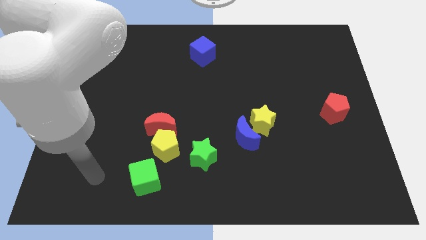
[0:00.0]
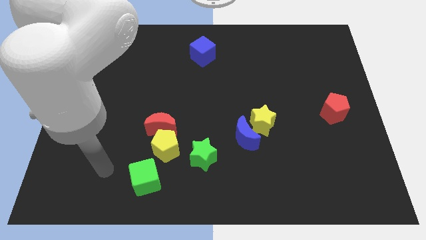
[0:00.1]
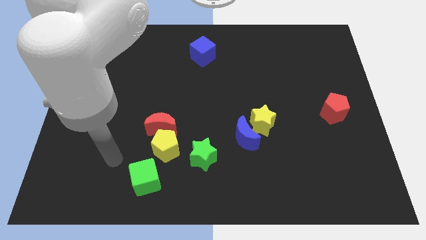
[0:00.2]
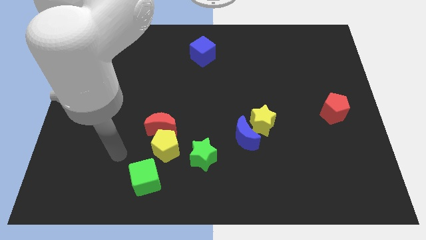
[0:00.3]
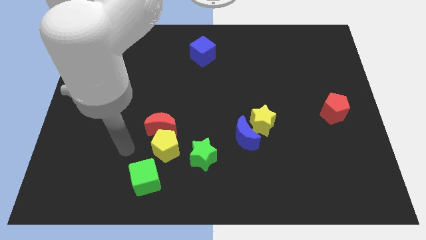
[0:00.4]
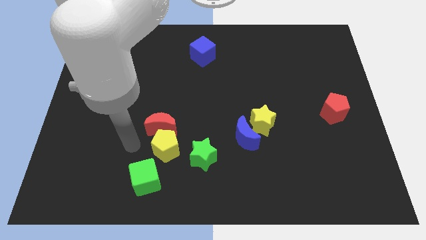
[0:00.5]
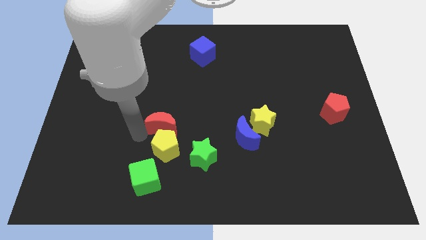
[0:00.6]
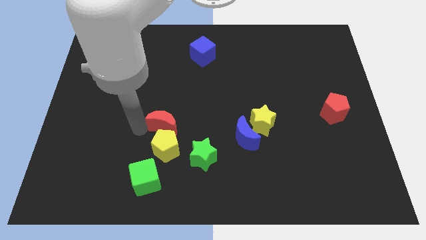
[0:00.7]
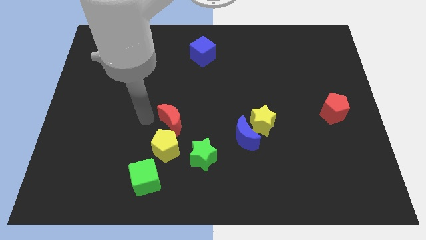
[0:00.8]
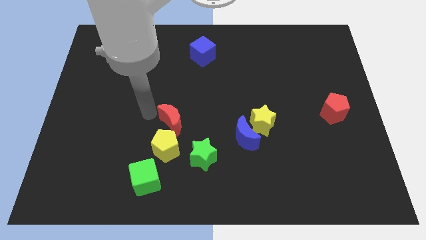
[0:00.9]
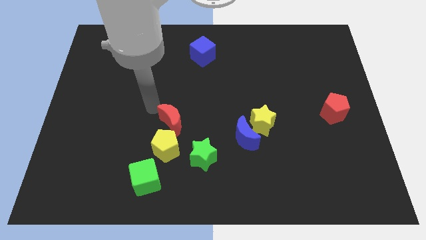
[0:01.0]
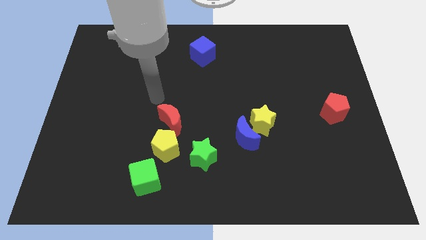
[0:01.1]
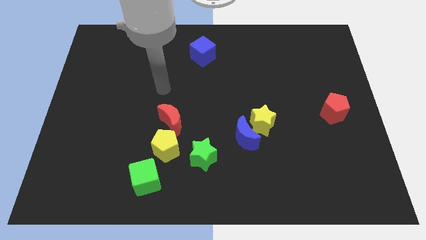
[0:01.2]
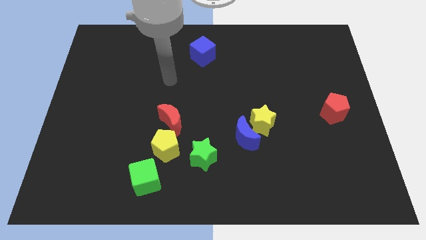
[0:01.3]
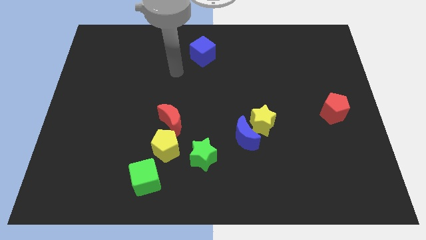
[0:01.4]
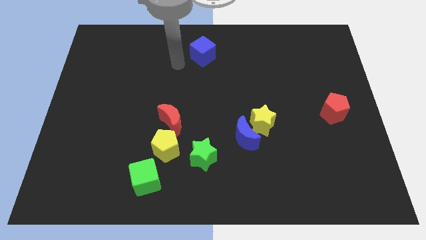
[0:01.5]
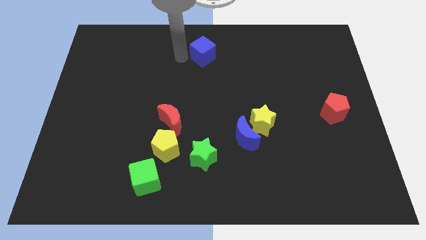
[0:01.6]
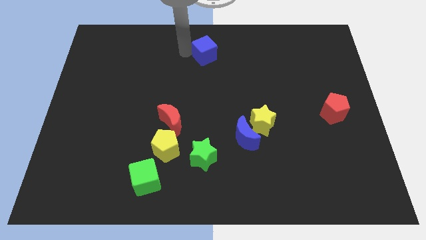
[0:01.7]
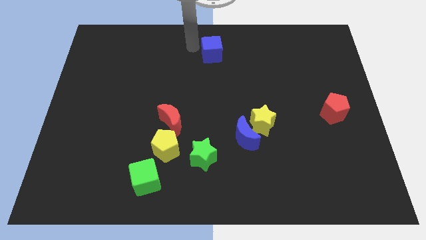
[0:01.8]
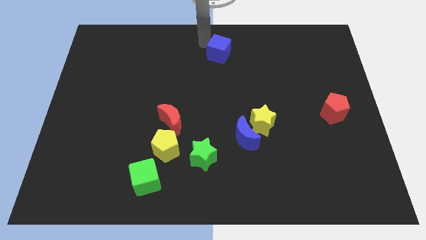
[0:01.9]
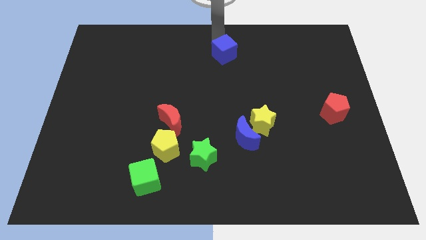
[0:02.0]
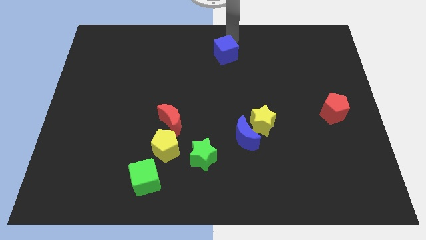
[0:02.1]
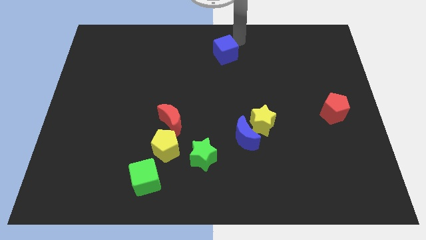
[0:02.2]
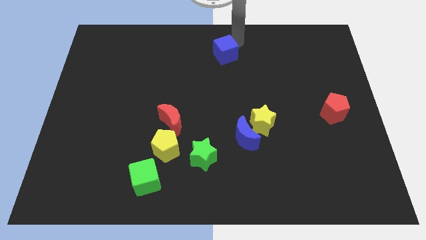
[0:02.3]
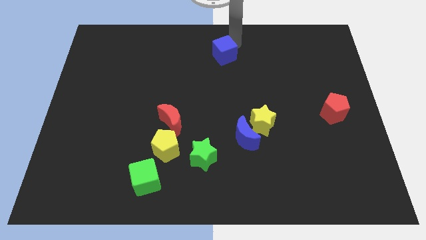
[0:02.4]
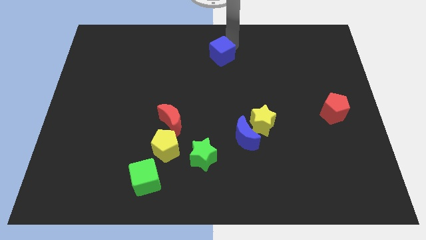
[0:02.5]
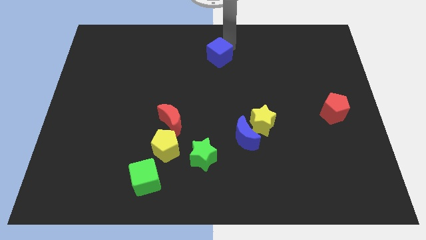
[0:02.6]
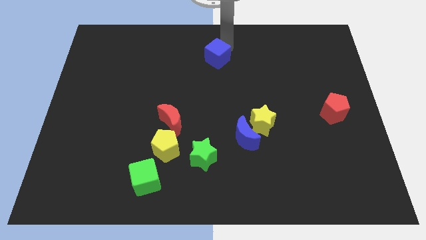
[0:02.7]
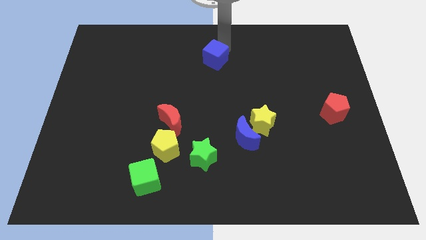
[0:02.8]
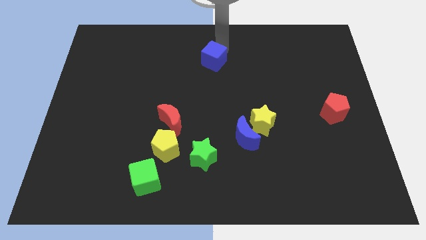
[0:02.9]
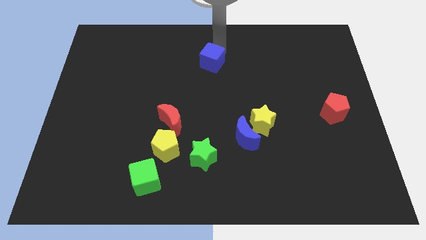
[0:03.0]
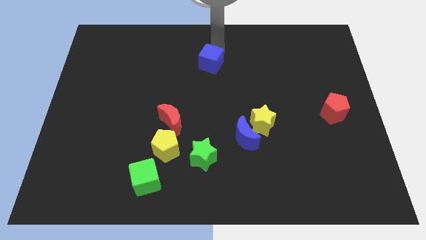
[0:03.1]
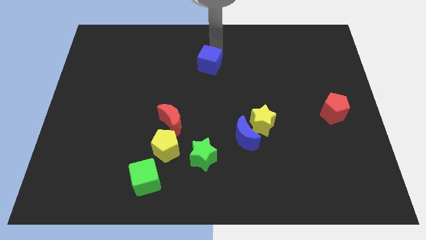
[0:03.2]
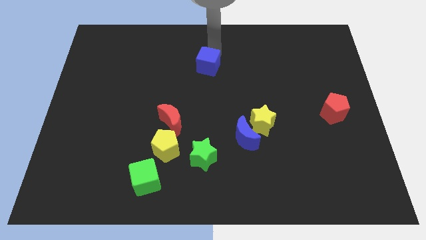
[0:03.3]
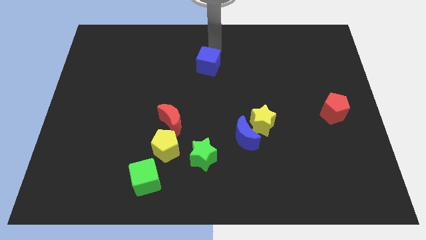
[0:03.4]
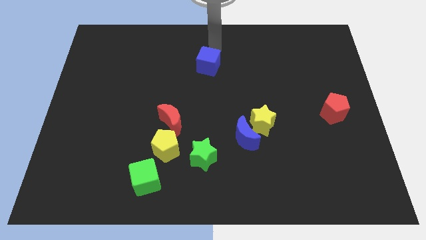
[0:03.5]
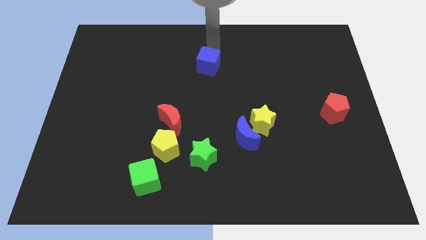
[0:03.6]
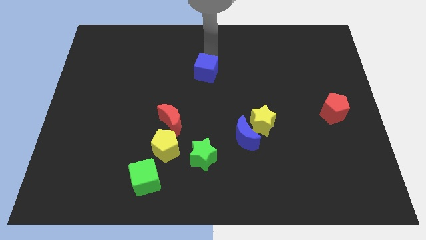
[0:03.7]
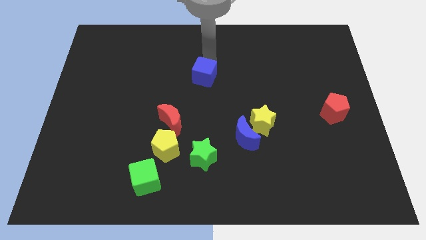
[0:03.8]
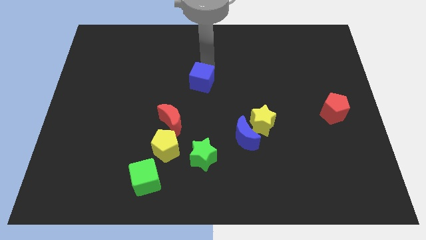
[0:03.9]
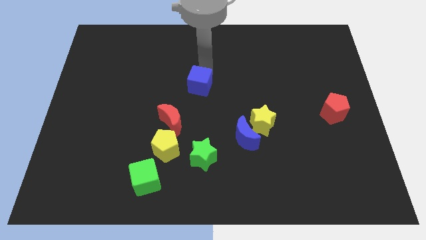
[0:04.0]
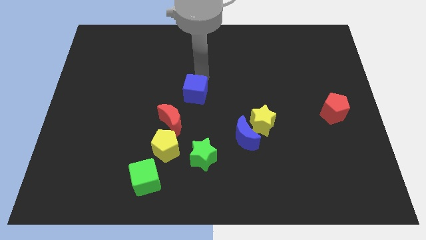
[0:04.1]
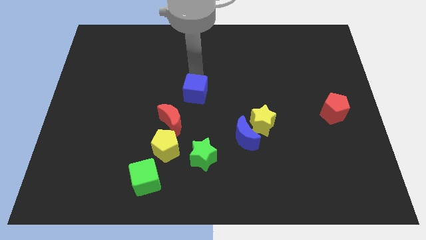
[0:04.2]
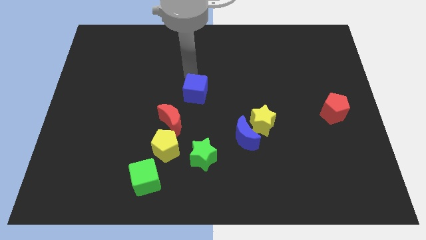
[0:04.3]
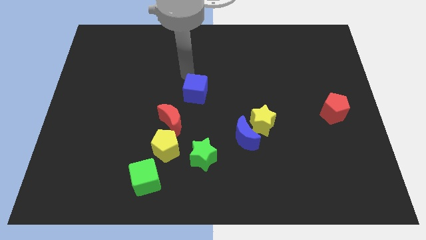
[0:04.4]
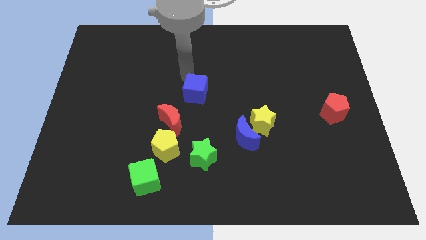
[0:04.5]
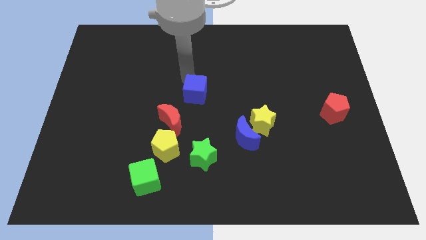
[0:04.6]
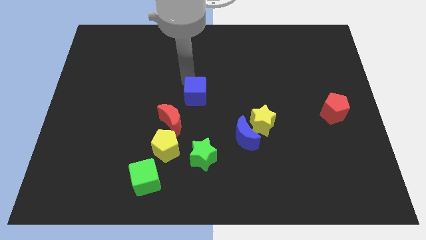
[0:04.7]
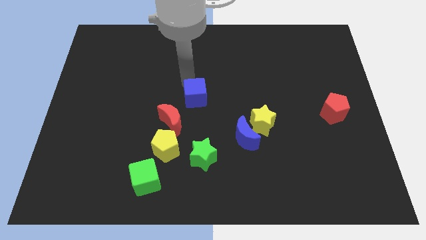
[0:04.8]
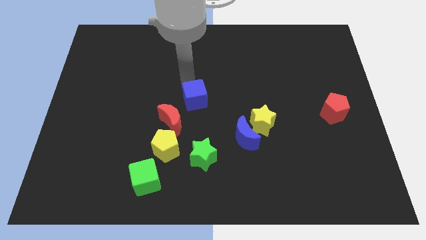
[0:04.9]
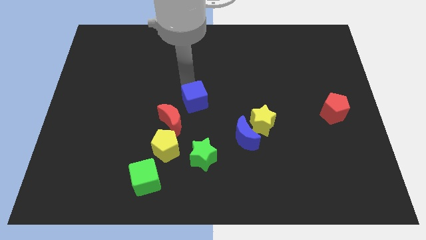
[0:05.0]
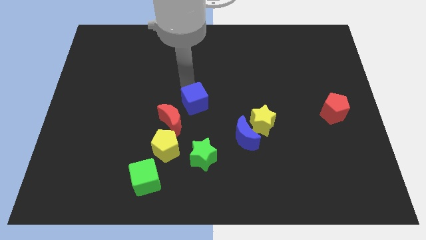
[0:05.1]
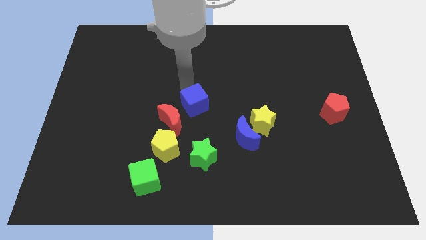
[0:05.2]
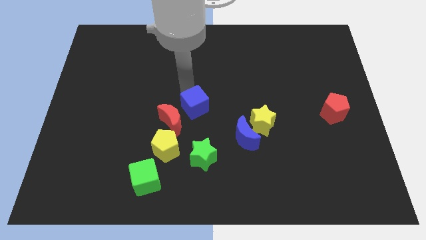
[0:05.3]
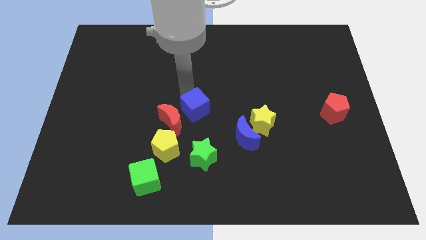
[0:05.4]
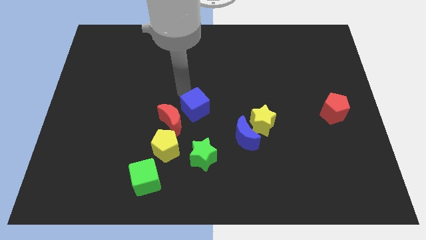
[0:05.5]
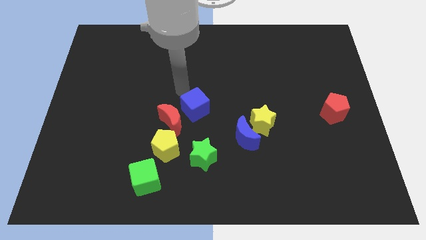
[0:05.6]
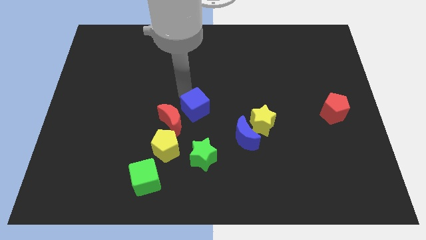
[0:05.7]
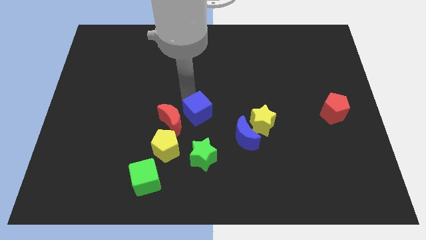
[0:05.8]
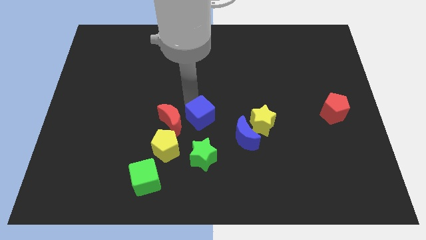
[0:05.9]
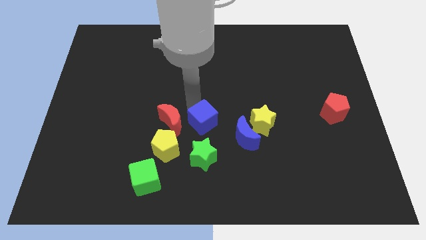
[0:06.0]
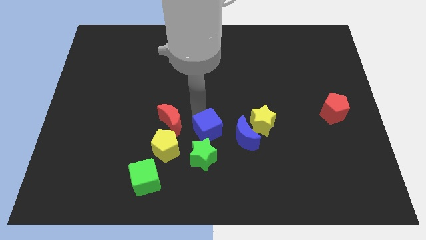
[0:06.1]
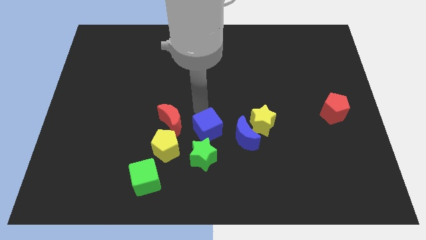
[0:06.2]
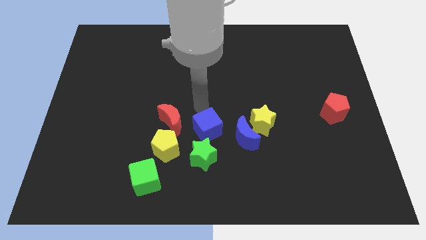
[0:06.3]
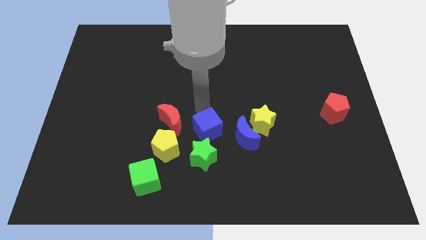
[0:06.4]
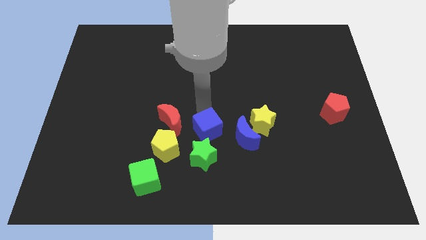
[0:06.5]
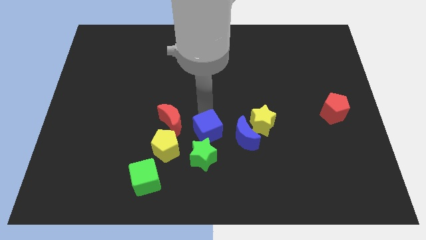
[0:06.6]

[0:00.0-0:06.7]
push the blue cube just right of the yellow pentagon

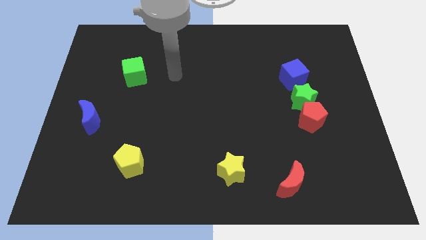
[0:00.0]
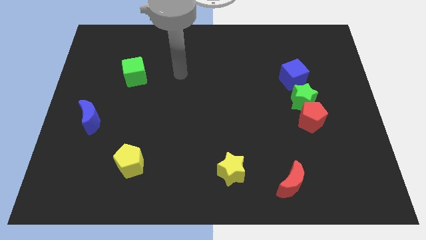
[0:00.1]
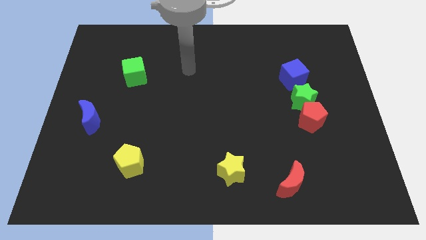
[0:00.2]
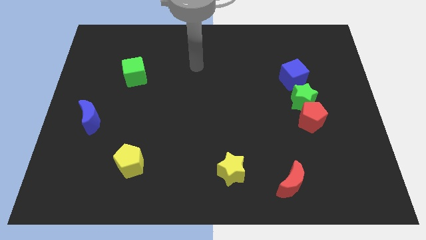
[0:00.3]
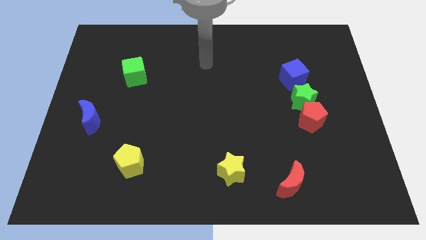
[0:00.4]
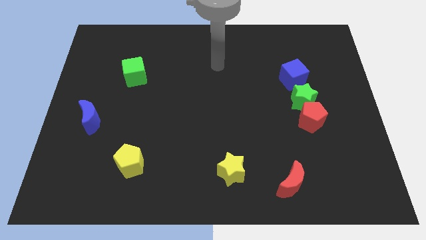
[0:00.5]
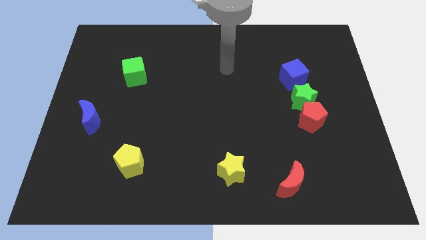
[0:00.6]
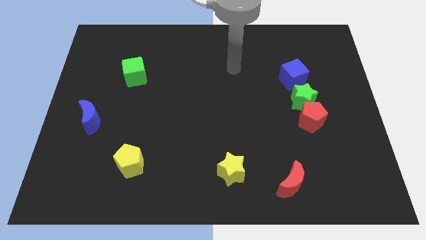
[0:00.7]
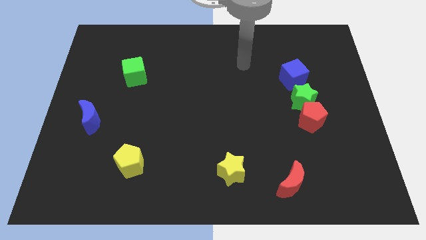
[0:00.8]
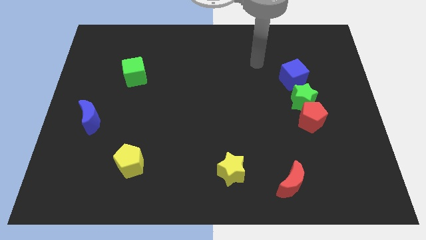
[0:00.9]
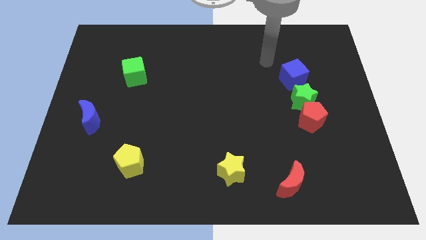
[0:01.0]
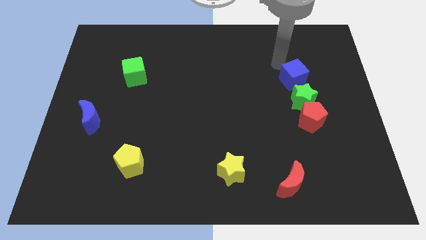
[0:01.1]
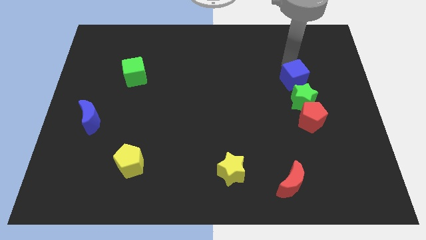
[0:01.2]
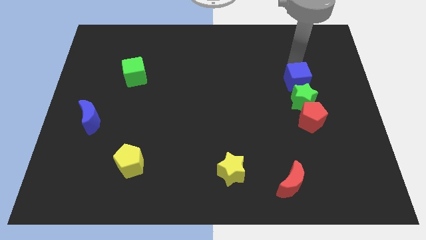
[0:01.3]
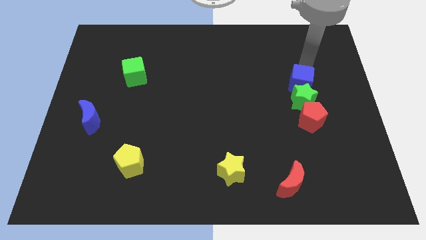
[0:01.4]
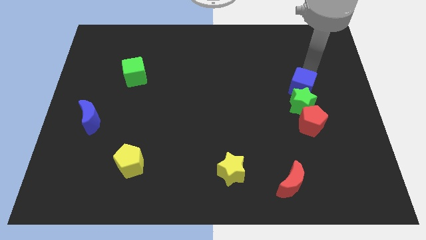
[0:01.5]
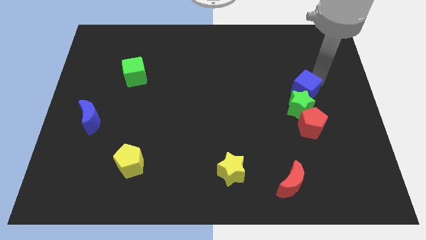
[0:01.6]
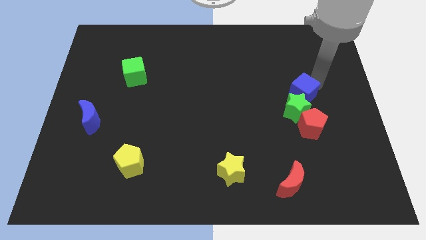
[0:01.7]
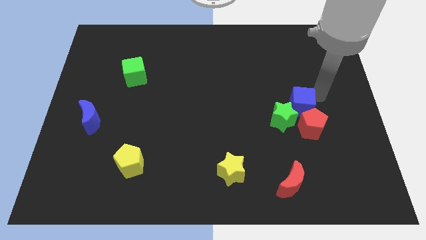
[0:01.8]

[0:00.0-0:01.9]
slide the green star just left of the red pentagon
